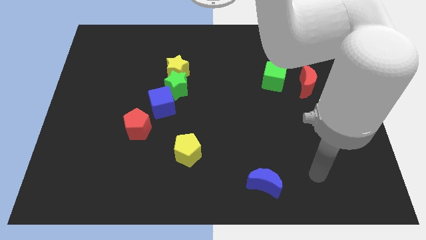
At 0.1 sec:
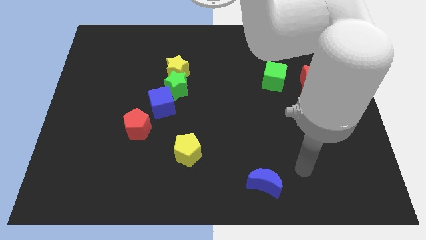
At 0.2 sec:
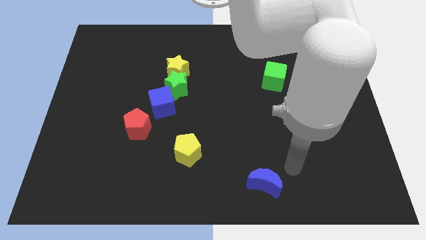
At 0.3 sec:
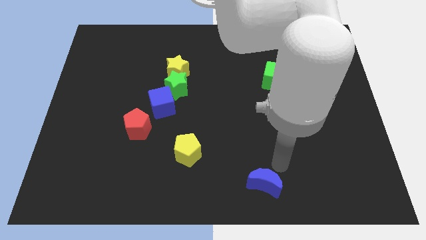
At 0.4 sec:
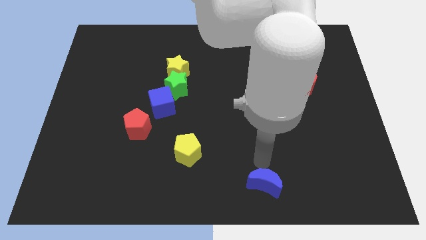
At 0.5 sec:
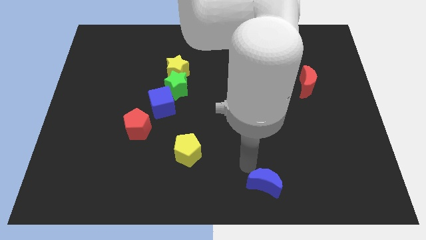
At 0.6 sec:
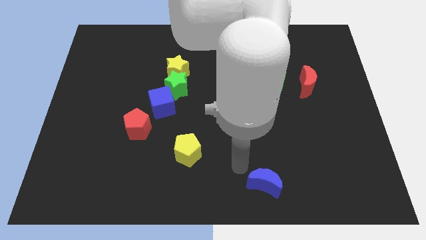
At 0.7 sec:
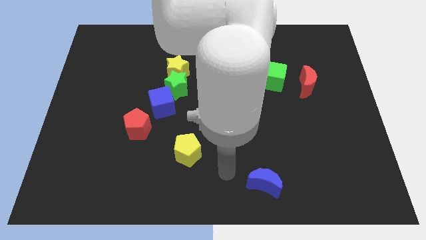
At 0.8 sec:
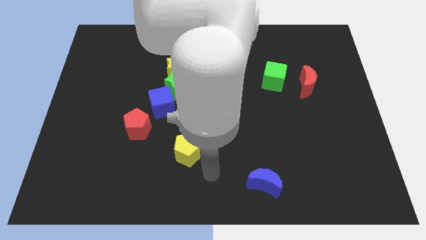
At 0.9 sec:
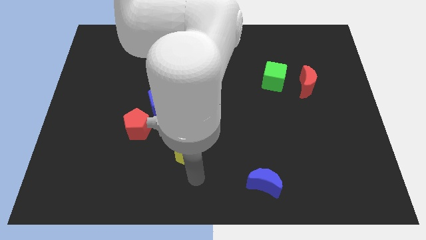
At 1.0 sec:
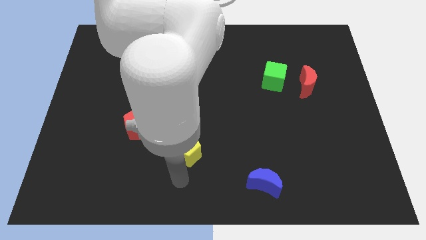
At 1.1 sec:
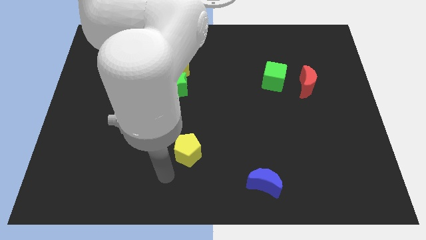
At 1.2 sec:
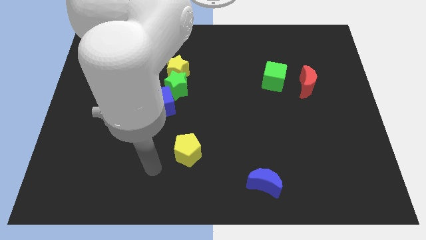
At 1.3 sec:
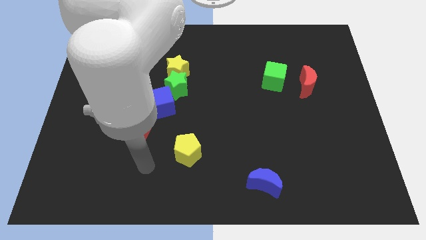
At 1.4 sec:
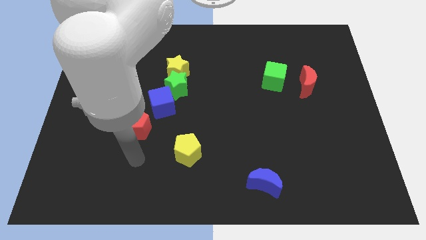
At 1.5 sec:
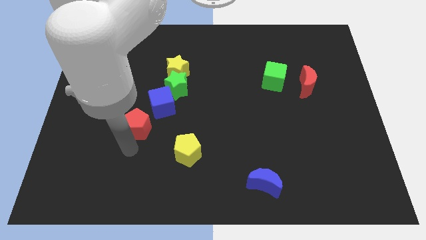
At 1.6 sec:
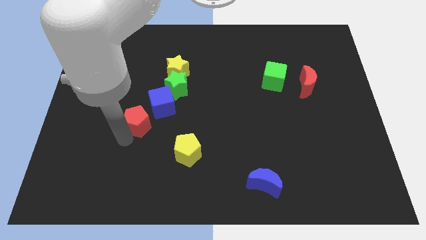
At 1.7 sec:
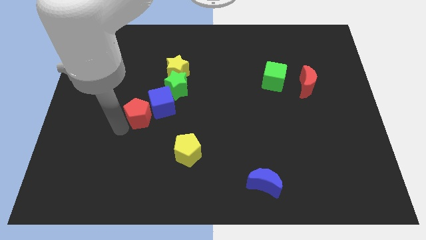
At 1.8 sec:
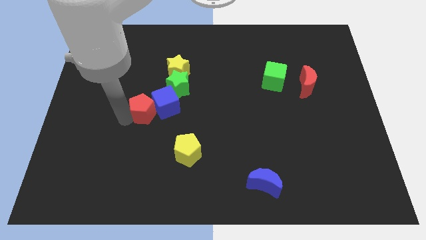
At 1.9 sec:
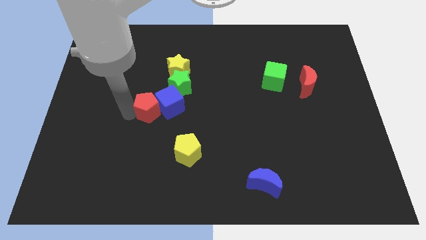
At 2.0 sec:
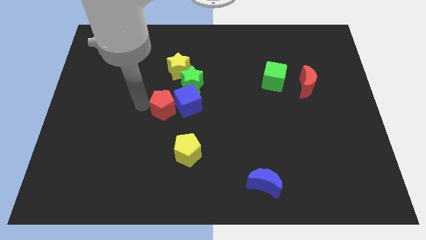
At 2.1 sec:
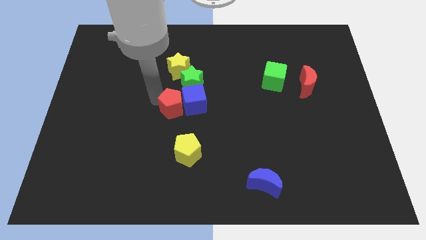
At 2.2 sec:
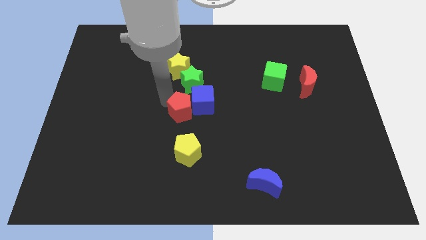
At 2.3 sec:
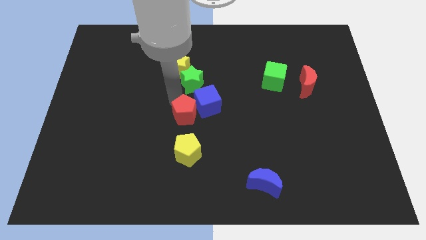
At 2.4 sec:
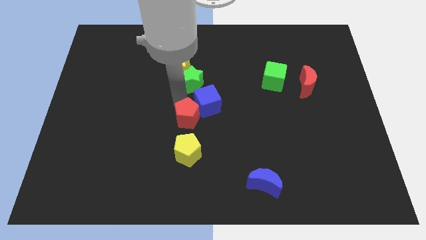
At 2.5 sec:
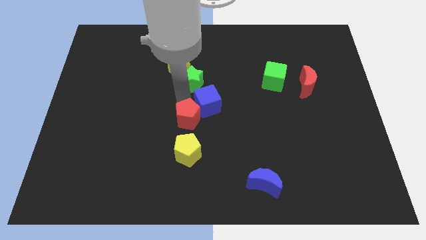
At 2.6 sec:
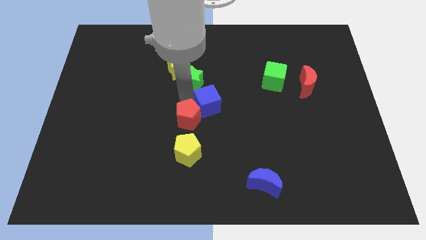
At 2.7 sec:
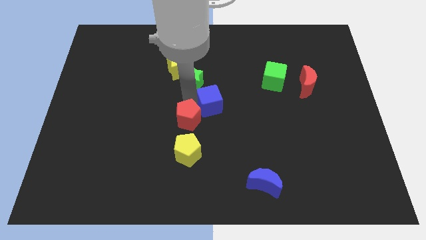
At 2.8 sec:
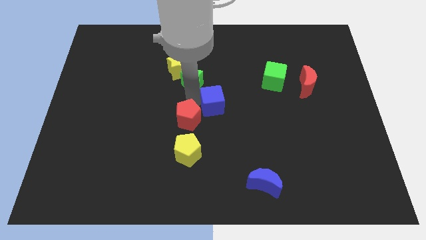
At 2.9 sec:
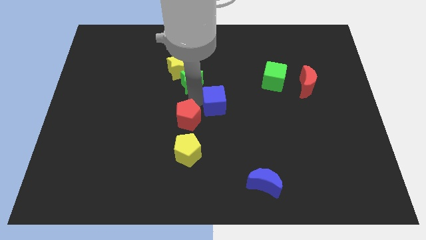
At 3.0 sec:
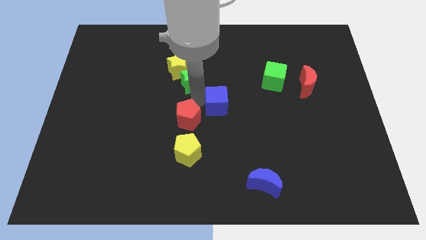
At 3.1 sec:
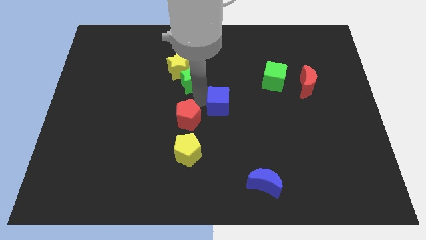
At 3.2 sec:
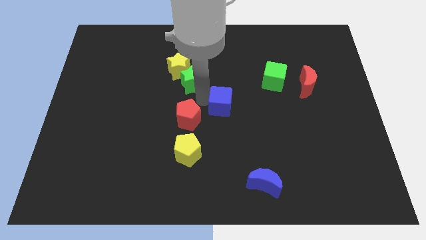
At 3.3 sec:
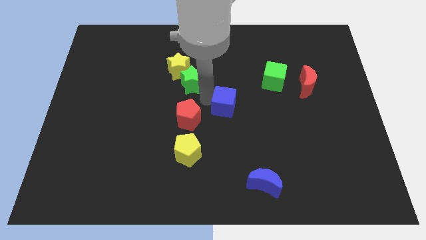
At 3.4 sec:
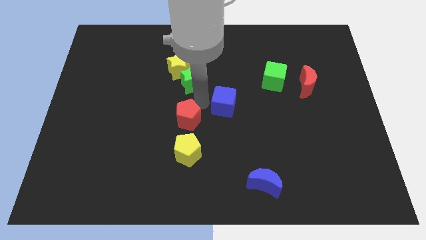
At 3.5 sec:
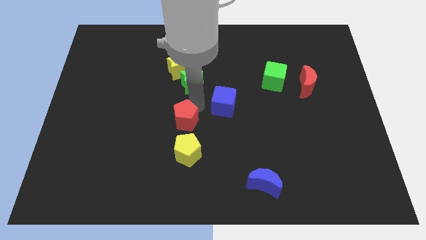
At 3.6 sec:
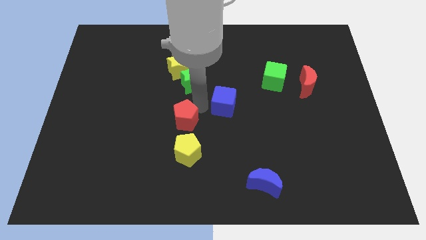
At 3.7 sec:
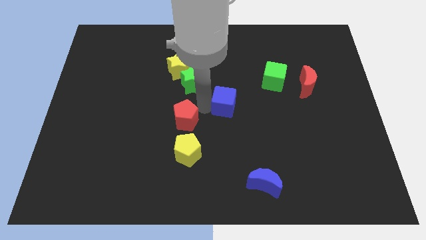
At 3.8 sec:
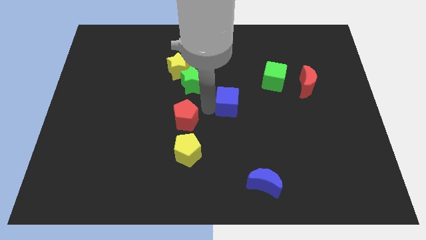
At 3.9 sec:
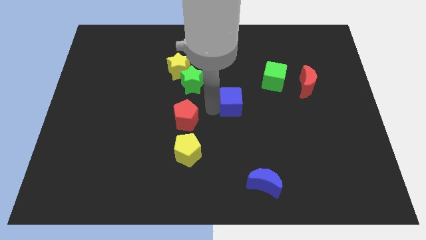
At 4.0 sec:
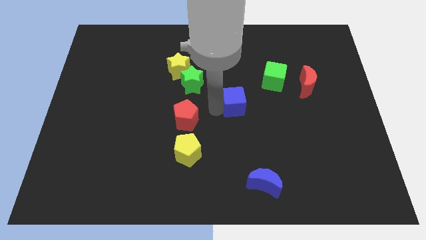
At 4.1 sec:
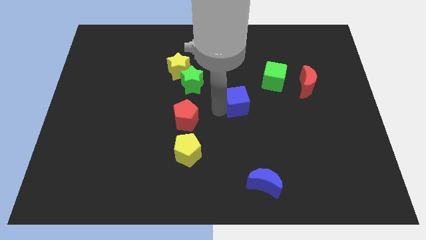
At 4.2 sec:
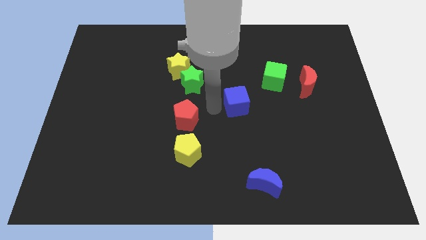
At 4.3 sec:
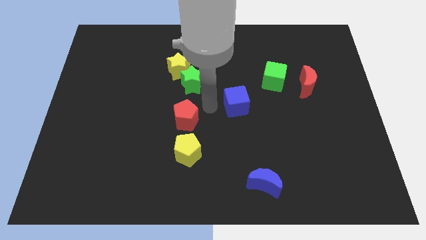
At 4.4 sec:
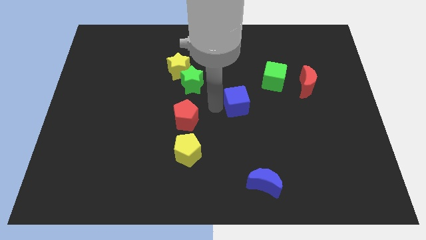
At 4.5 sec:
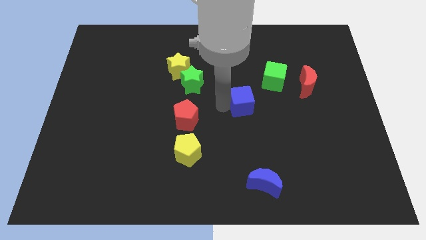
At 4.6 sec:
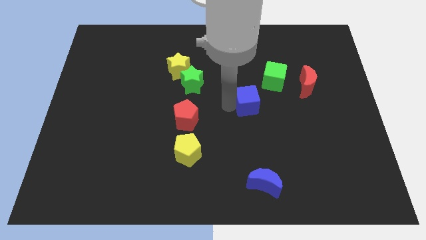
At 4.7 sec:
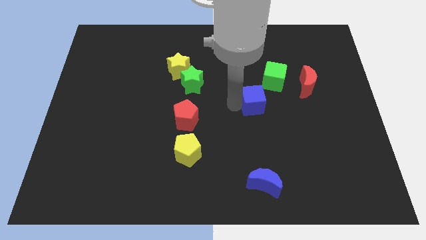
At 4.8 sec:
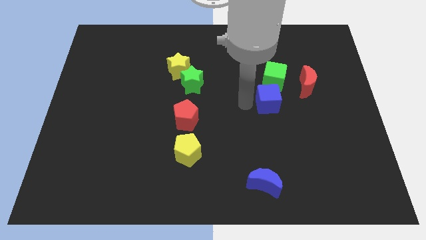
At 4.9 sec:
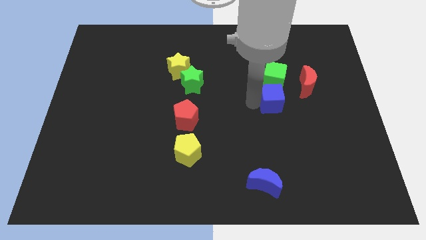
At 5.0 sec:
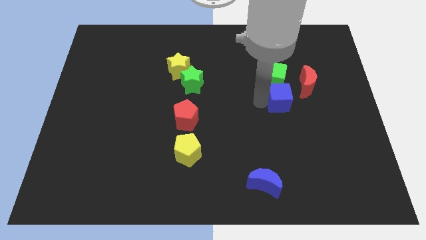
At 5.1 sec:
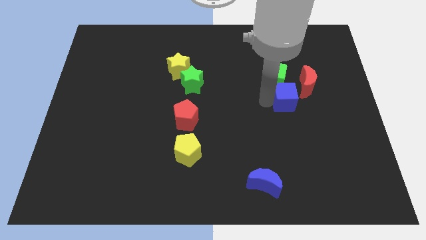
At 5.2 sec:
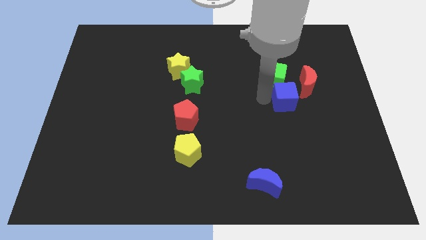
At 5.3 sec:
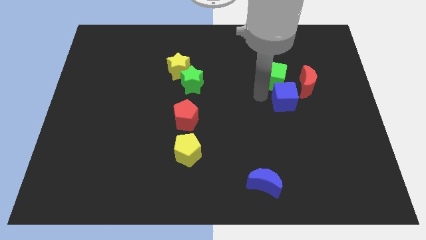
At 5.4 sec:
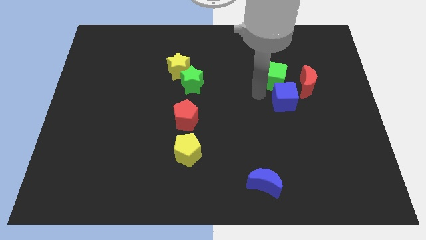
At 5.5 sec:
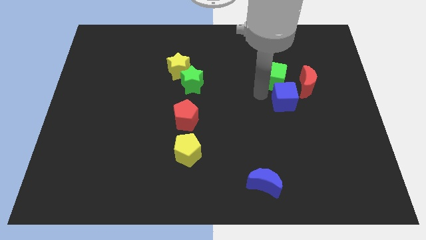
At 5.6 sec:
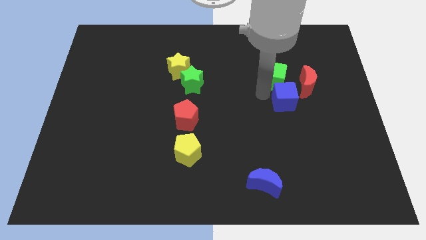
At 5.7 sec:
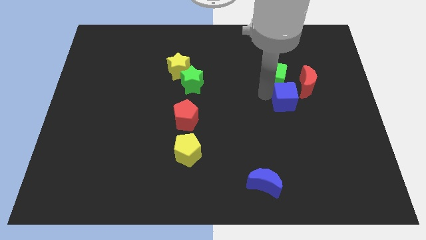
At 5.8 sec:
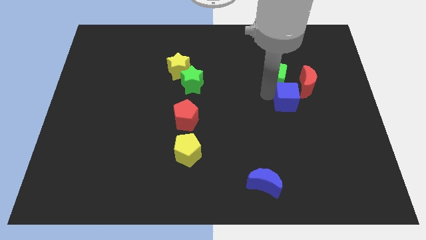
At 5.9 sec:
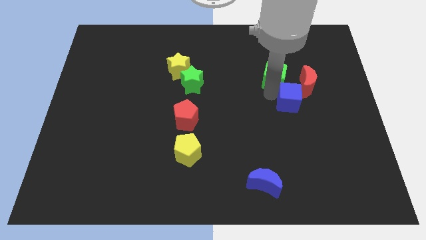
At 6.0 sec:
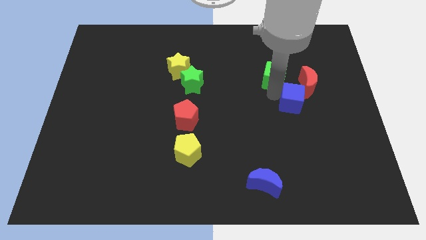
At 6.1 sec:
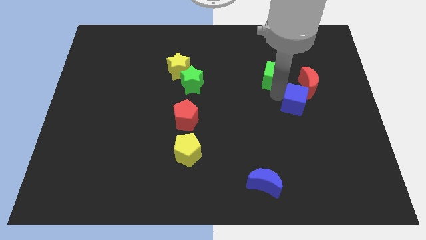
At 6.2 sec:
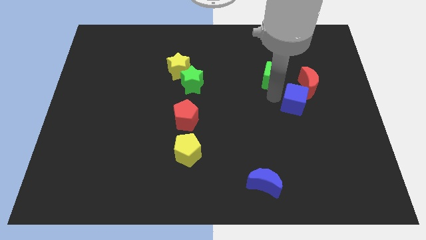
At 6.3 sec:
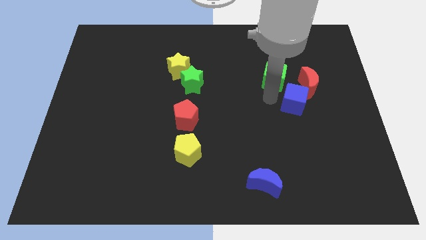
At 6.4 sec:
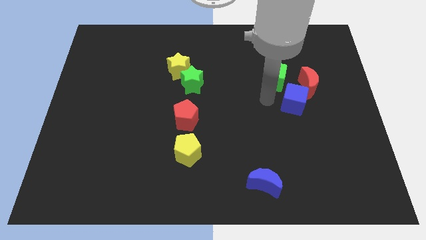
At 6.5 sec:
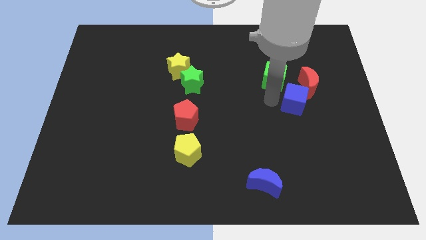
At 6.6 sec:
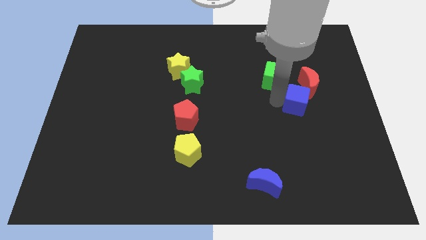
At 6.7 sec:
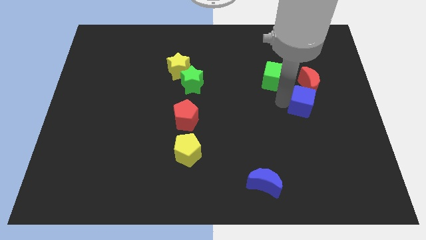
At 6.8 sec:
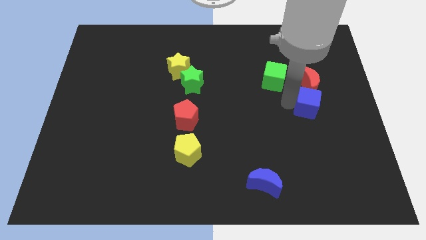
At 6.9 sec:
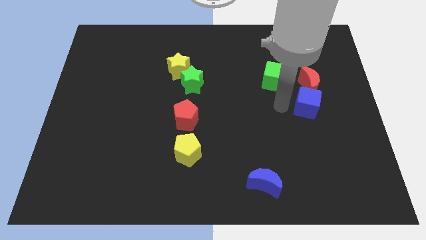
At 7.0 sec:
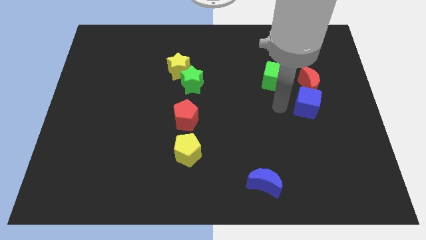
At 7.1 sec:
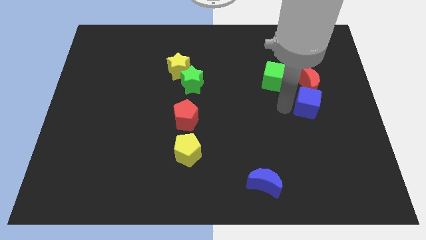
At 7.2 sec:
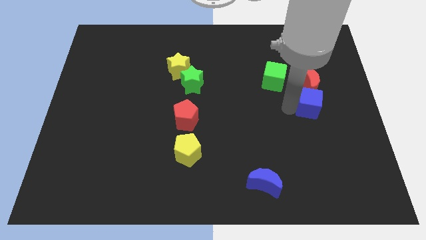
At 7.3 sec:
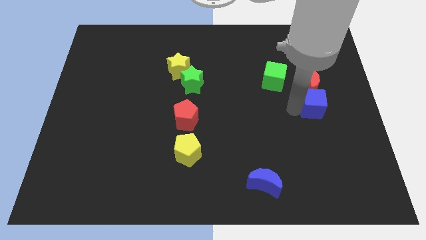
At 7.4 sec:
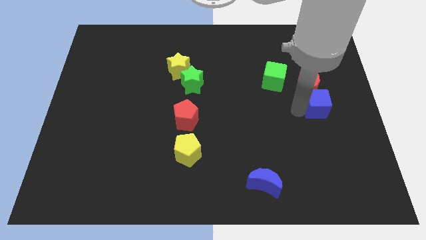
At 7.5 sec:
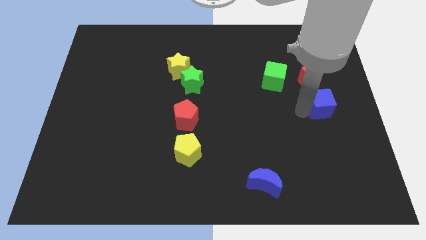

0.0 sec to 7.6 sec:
slide the blue cube to the right side of the board

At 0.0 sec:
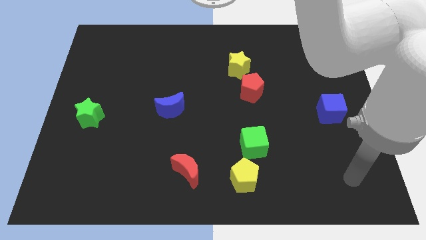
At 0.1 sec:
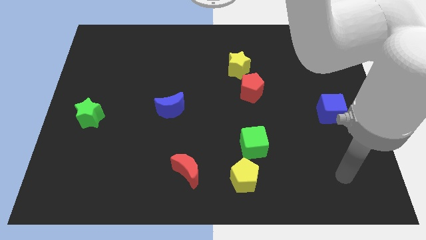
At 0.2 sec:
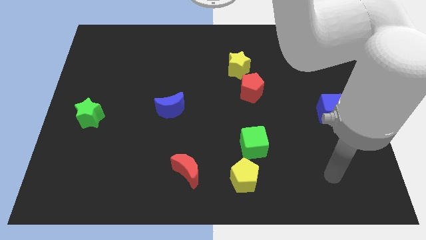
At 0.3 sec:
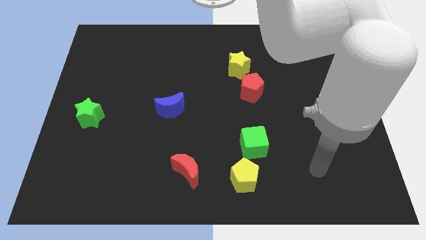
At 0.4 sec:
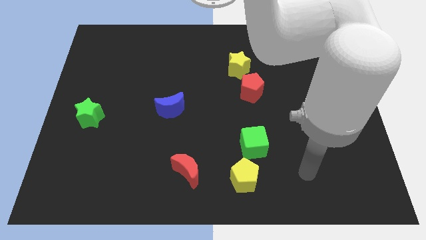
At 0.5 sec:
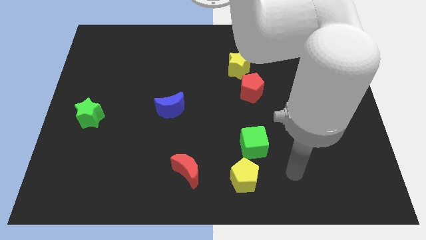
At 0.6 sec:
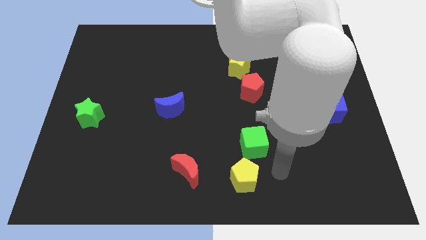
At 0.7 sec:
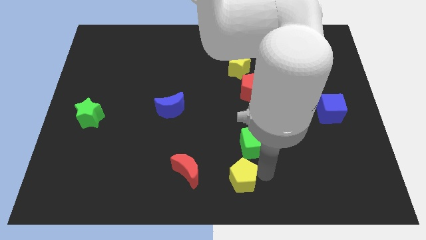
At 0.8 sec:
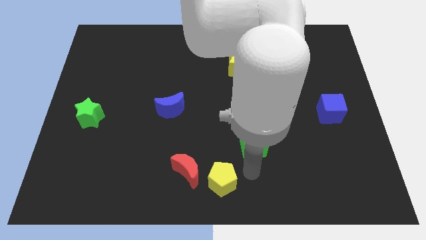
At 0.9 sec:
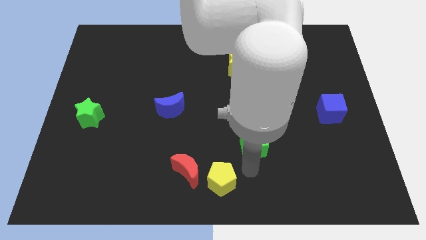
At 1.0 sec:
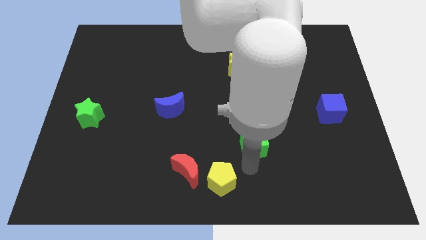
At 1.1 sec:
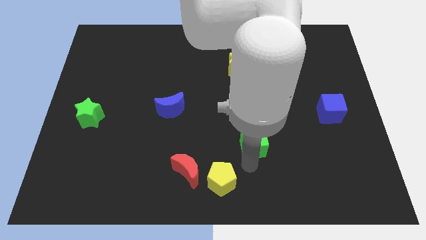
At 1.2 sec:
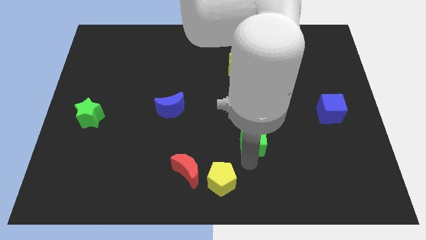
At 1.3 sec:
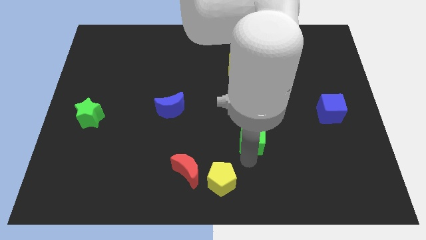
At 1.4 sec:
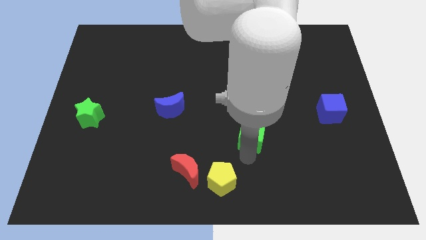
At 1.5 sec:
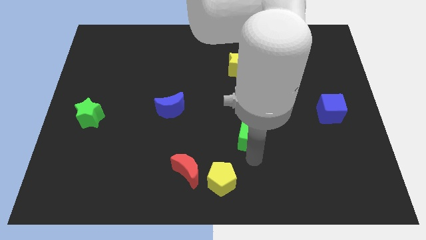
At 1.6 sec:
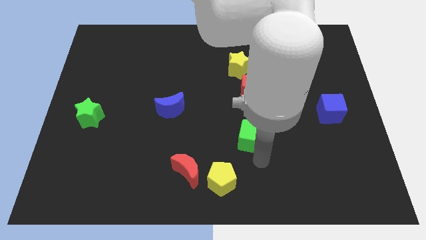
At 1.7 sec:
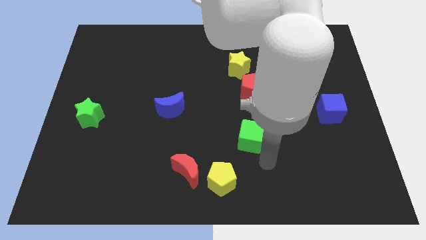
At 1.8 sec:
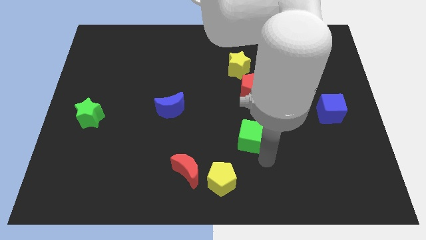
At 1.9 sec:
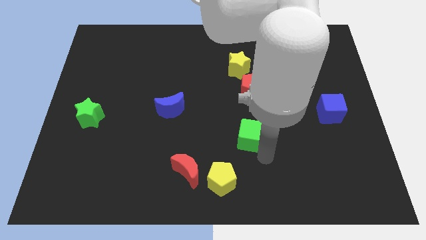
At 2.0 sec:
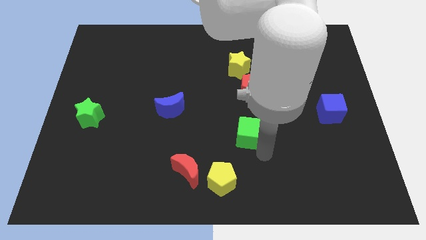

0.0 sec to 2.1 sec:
move the green cube to the middle of the board
